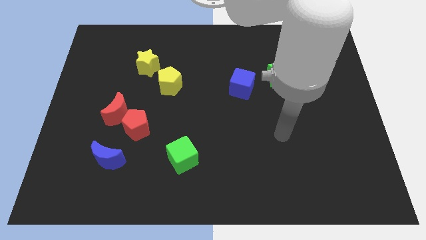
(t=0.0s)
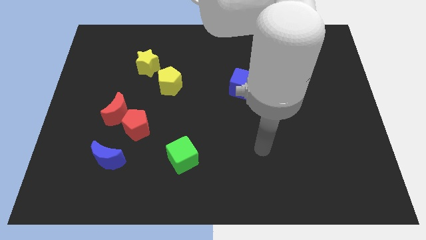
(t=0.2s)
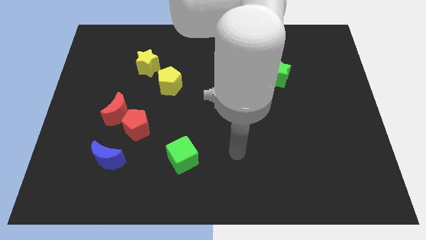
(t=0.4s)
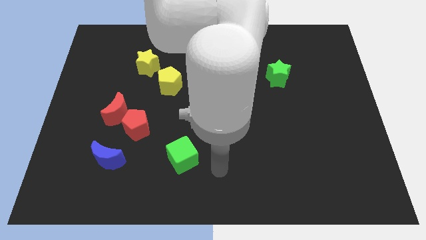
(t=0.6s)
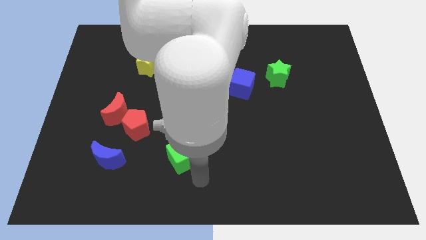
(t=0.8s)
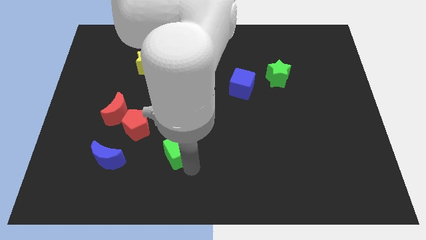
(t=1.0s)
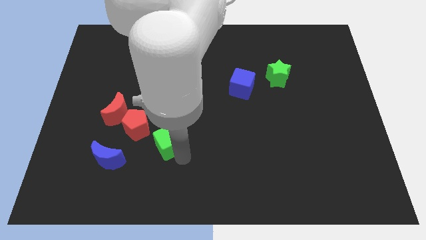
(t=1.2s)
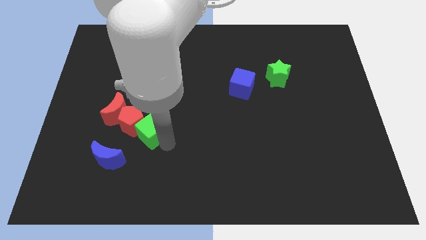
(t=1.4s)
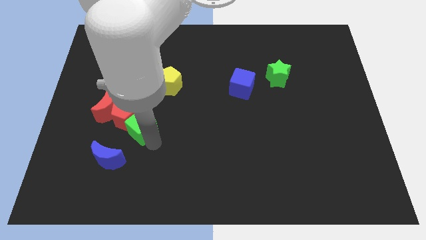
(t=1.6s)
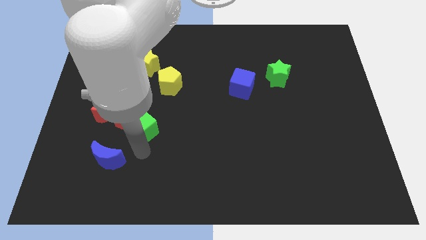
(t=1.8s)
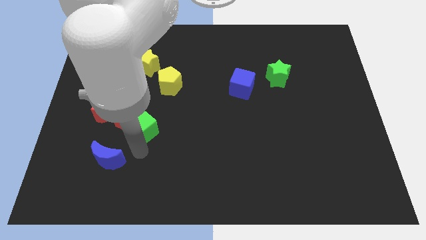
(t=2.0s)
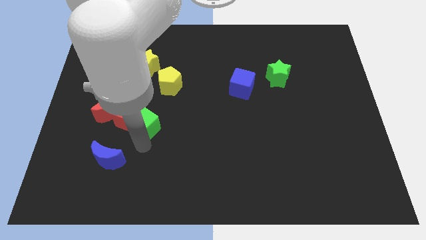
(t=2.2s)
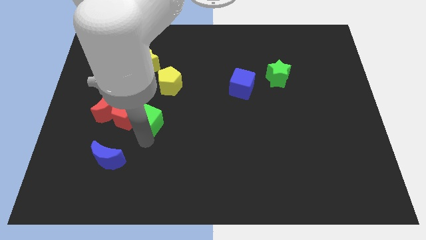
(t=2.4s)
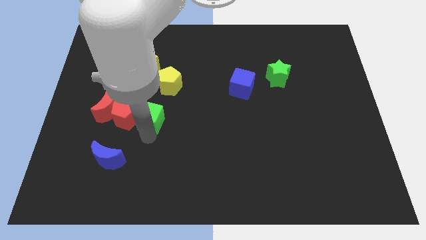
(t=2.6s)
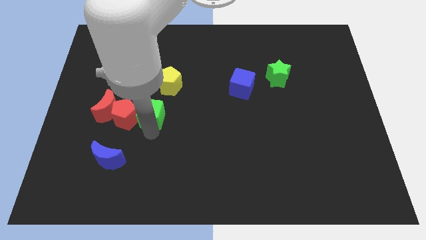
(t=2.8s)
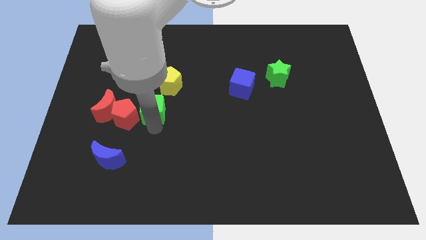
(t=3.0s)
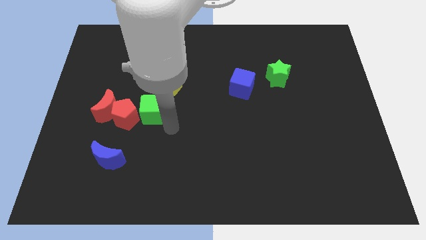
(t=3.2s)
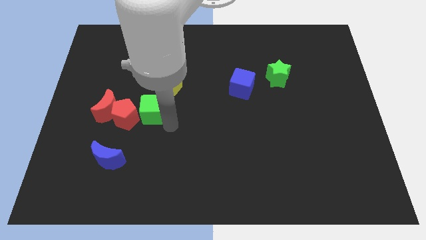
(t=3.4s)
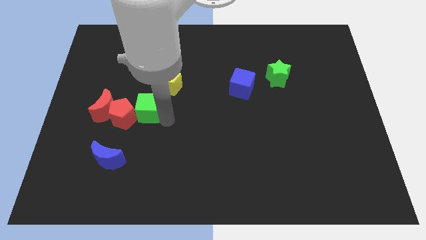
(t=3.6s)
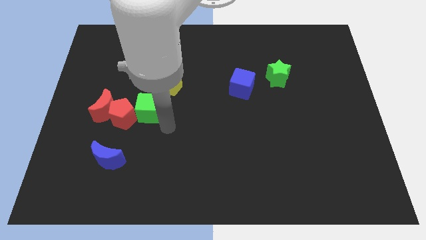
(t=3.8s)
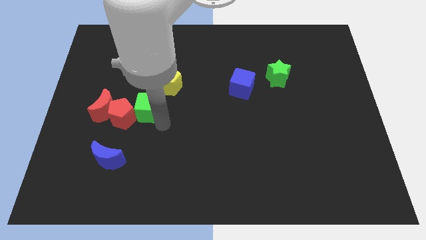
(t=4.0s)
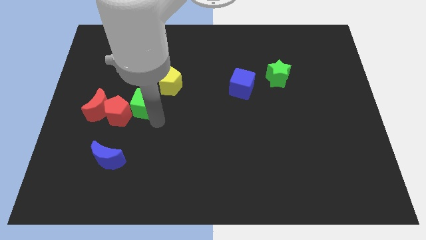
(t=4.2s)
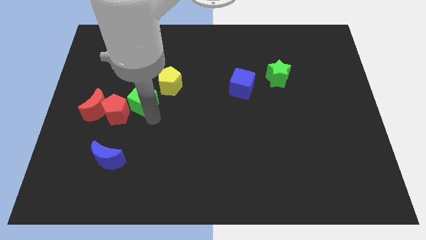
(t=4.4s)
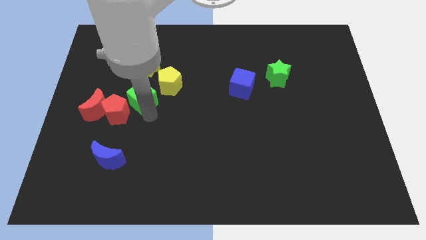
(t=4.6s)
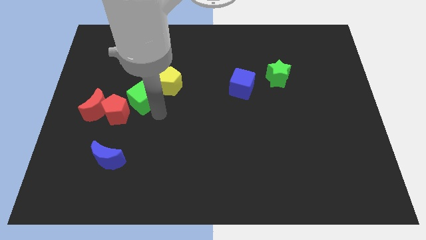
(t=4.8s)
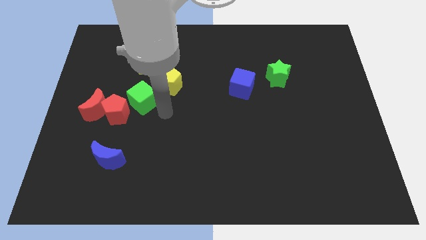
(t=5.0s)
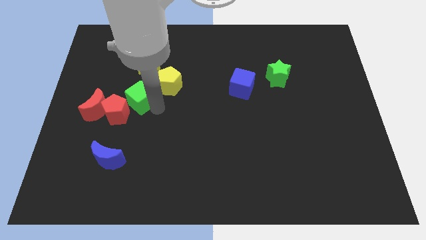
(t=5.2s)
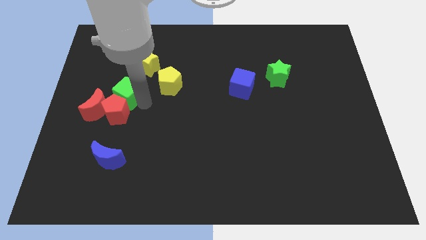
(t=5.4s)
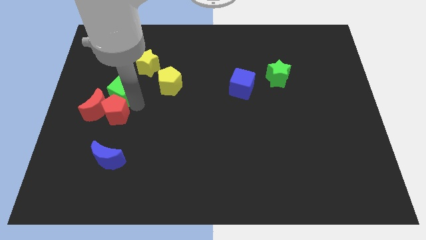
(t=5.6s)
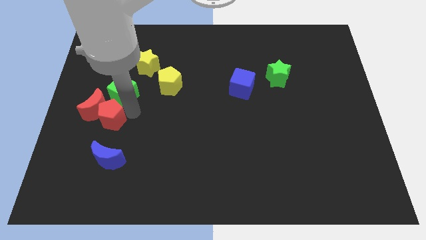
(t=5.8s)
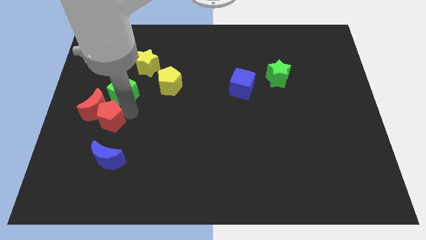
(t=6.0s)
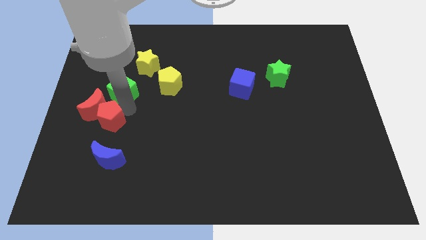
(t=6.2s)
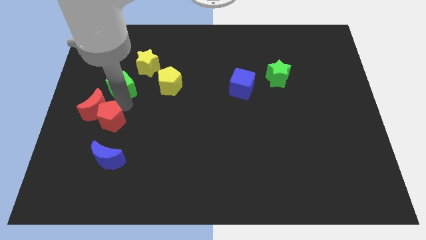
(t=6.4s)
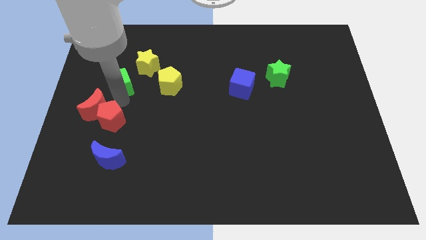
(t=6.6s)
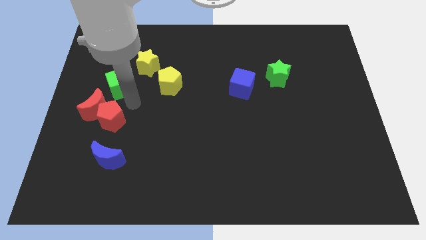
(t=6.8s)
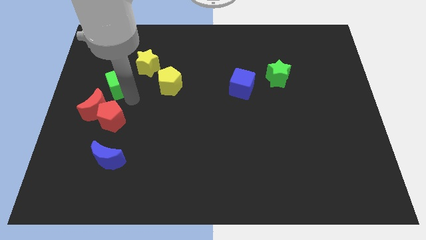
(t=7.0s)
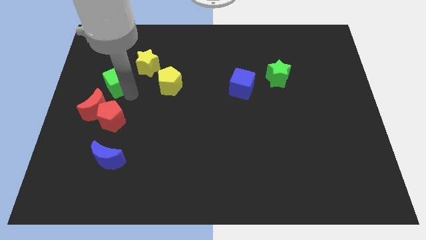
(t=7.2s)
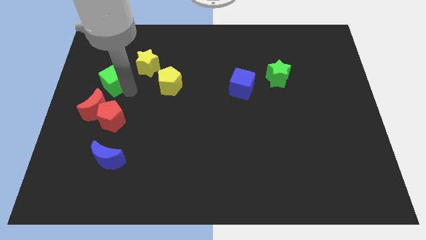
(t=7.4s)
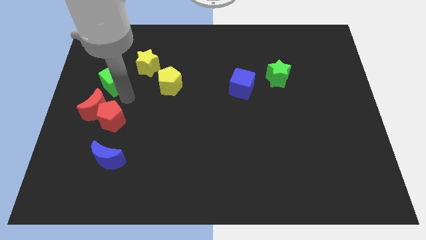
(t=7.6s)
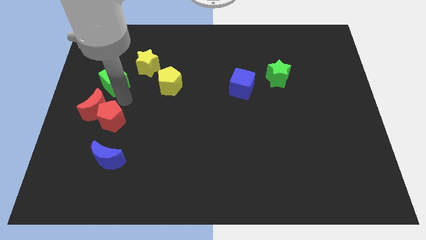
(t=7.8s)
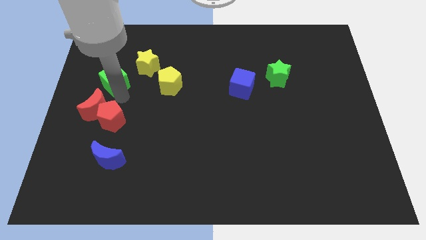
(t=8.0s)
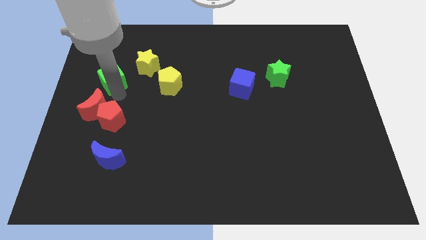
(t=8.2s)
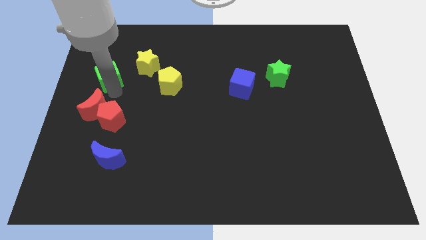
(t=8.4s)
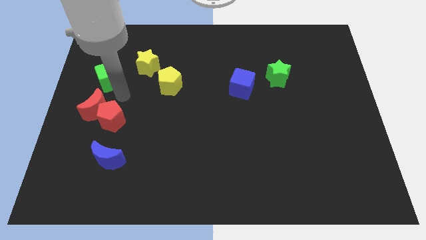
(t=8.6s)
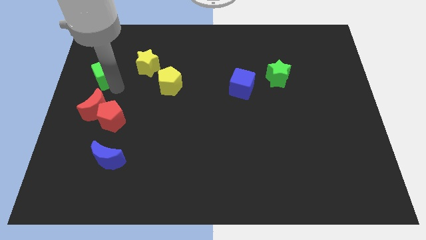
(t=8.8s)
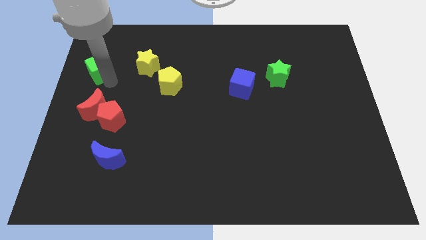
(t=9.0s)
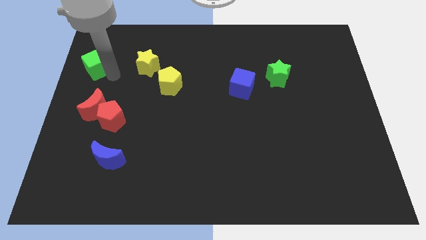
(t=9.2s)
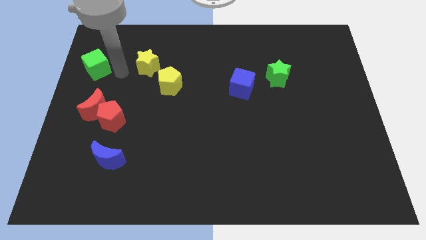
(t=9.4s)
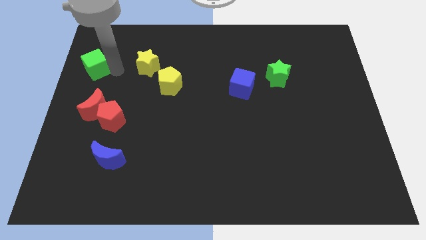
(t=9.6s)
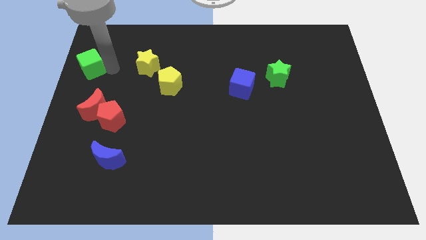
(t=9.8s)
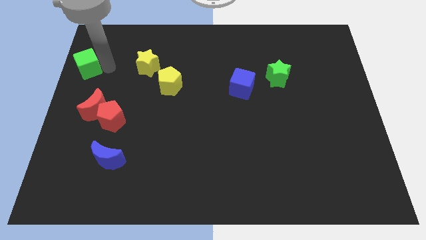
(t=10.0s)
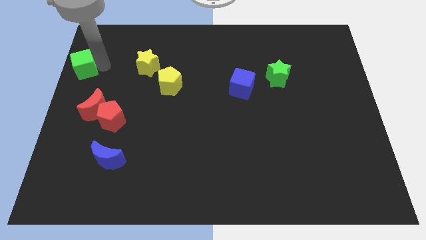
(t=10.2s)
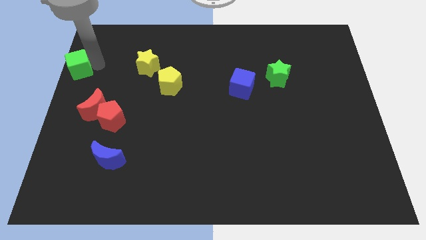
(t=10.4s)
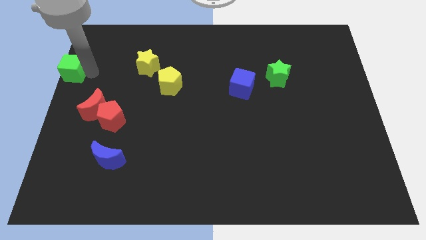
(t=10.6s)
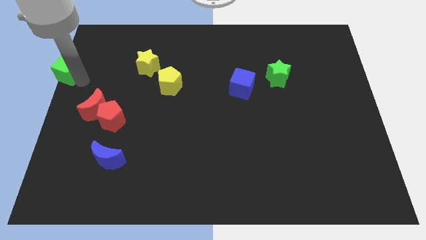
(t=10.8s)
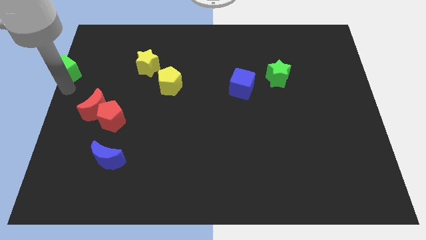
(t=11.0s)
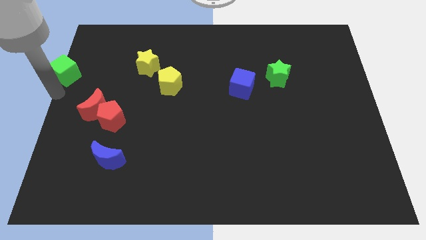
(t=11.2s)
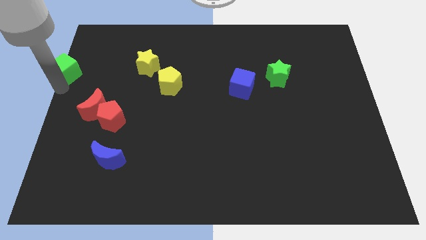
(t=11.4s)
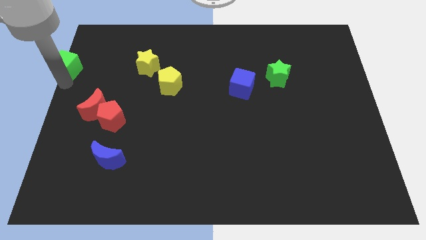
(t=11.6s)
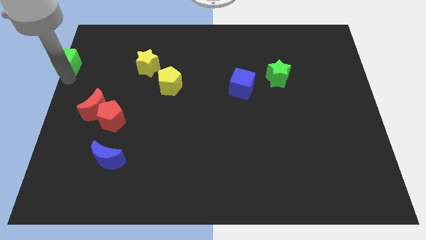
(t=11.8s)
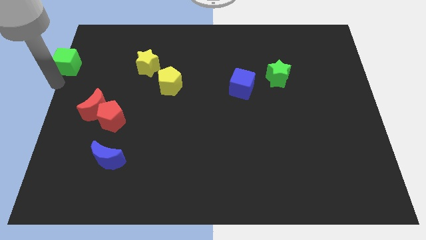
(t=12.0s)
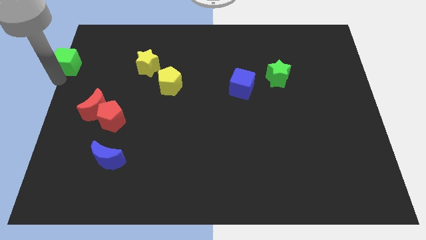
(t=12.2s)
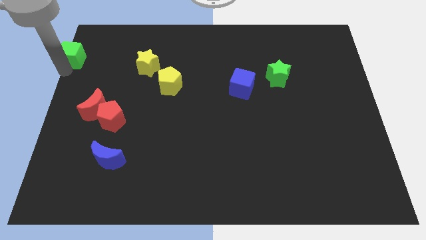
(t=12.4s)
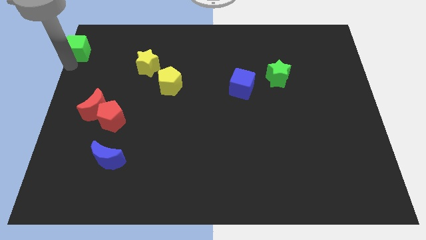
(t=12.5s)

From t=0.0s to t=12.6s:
put the green cube to the top left corner

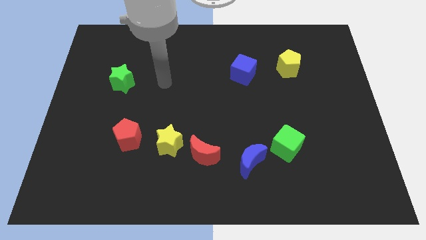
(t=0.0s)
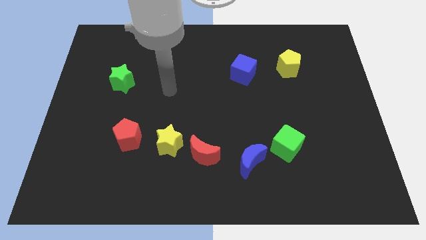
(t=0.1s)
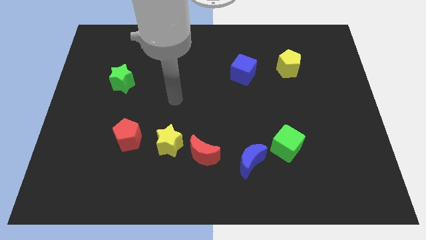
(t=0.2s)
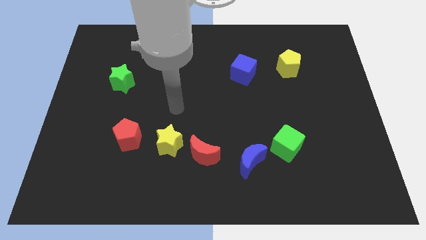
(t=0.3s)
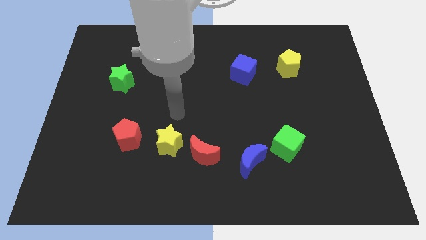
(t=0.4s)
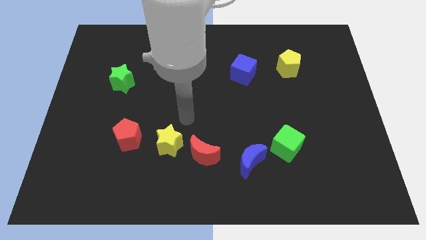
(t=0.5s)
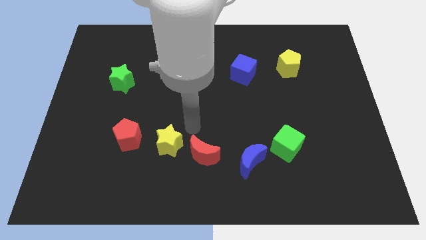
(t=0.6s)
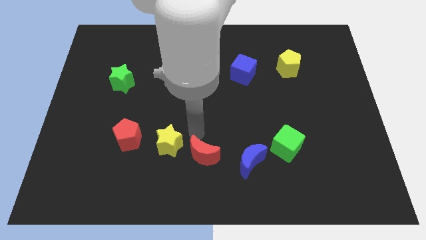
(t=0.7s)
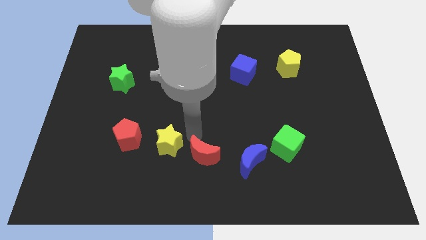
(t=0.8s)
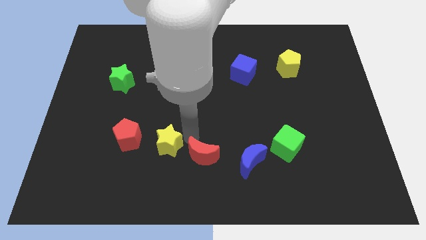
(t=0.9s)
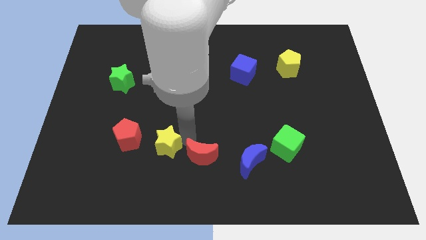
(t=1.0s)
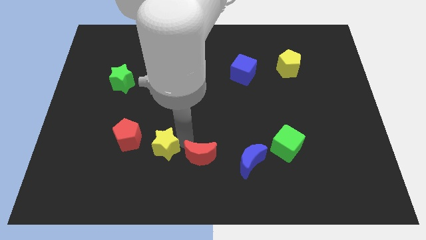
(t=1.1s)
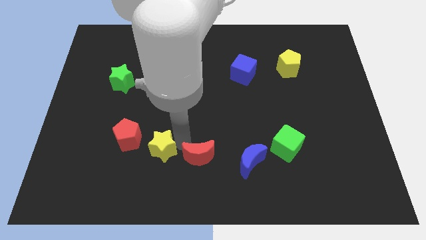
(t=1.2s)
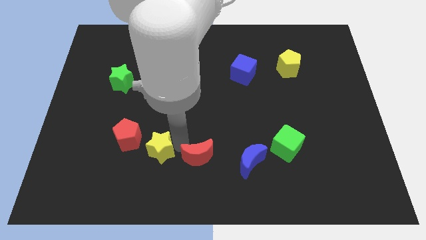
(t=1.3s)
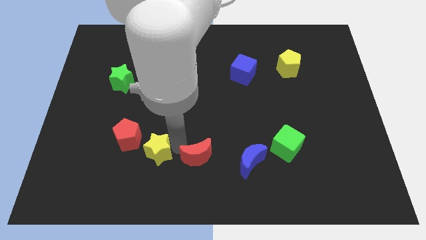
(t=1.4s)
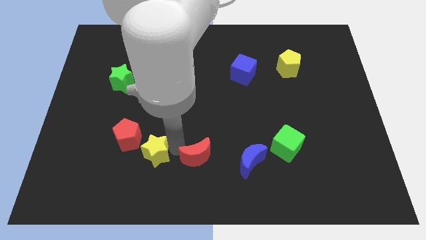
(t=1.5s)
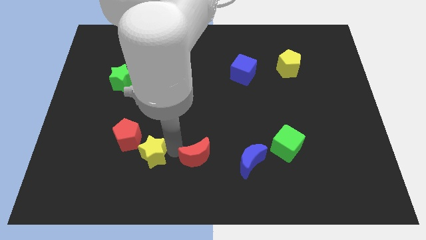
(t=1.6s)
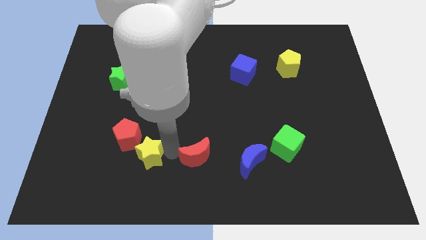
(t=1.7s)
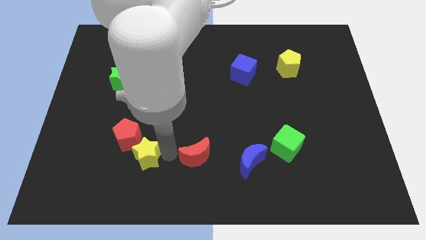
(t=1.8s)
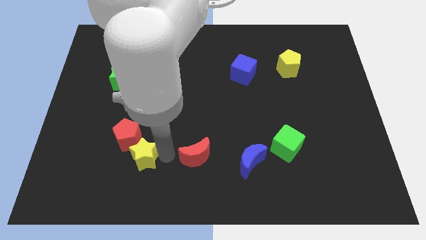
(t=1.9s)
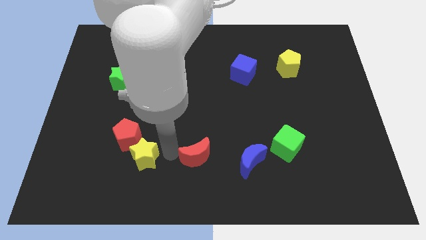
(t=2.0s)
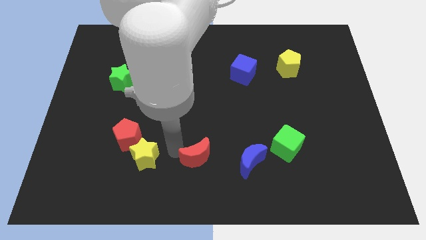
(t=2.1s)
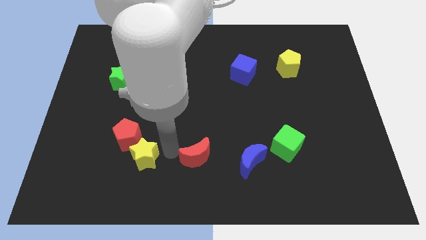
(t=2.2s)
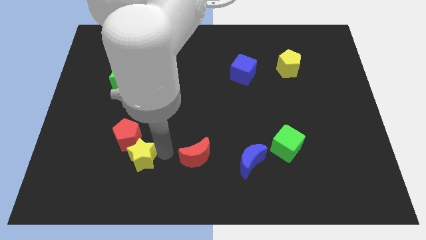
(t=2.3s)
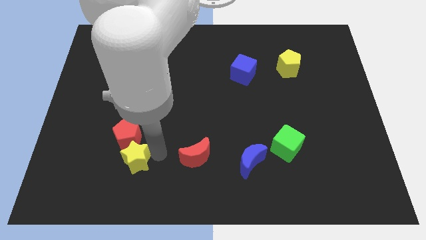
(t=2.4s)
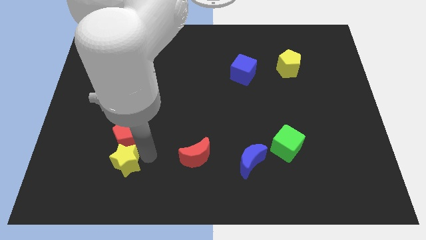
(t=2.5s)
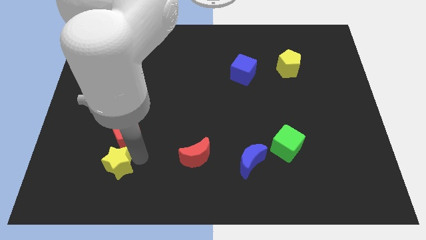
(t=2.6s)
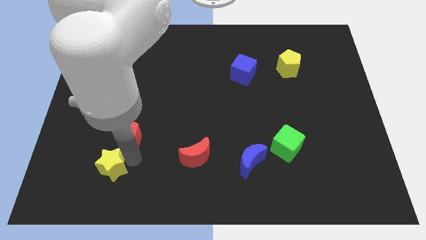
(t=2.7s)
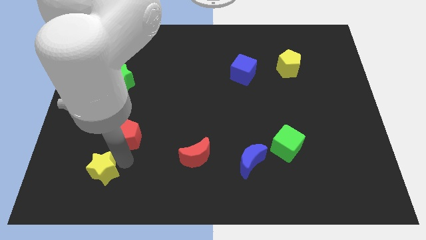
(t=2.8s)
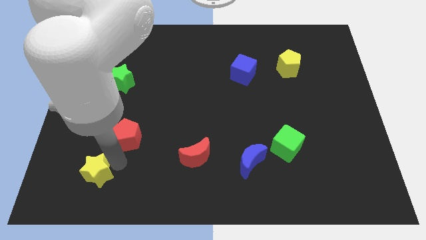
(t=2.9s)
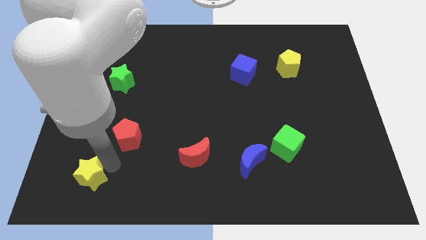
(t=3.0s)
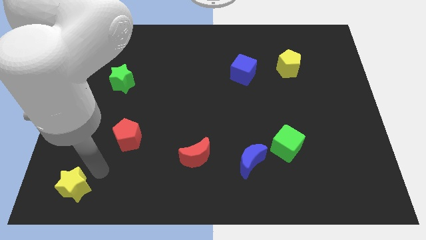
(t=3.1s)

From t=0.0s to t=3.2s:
slide the yellow star to the bottom left corner
